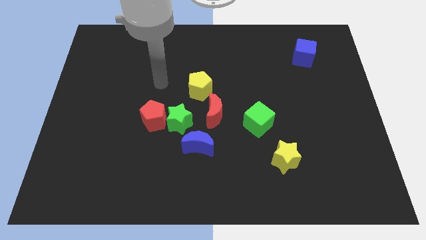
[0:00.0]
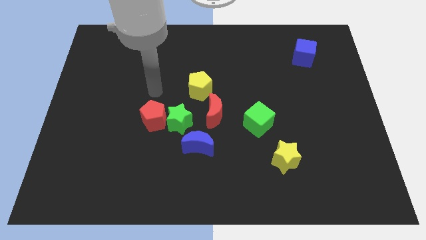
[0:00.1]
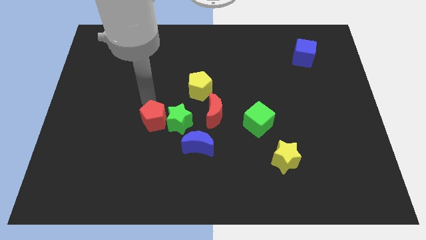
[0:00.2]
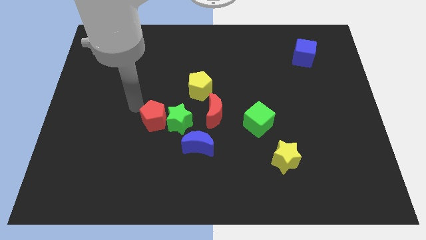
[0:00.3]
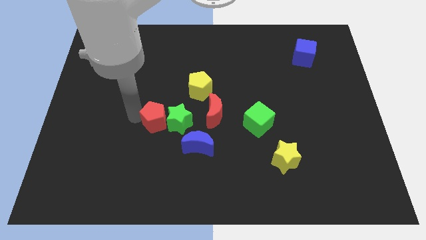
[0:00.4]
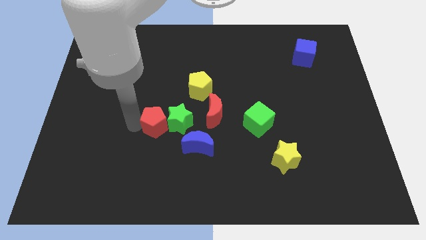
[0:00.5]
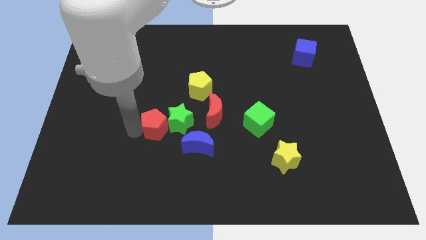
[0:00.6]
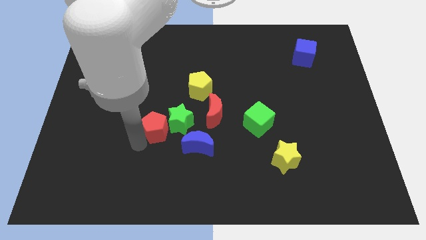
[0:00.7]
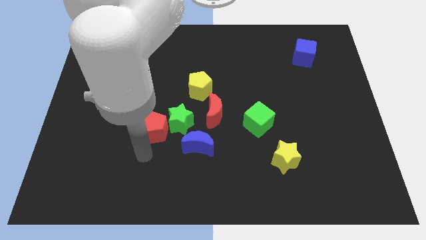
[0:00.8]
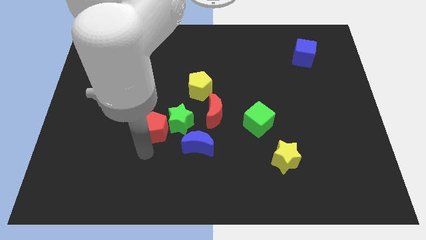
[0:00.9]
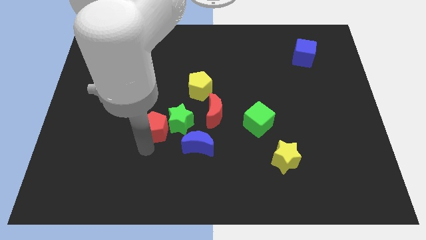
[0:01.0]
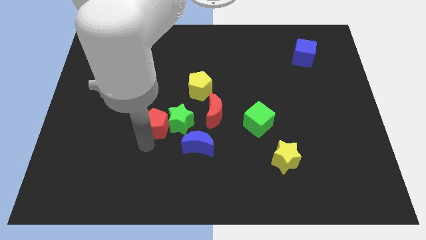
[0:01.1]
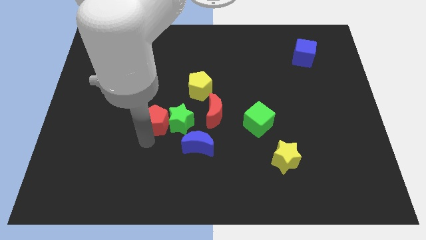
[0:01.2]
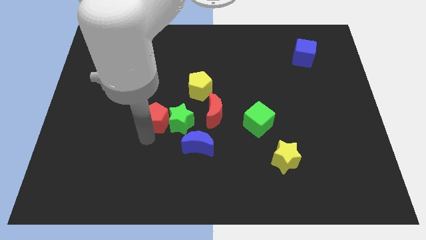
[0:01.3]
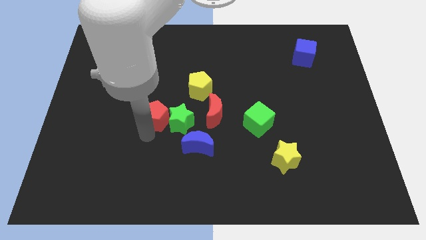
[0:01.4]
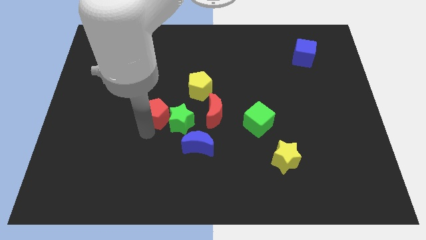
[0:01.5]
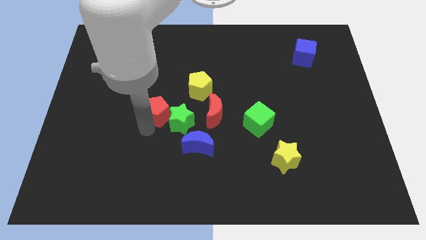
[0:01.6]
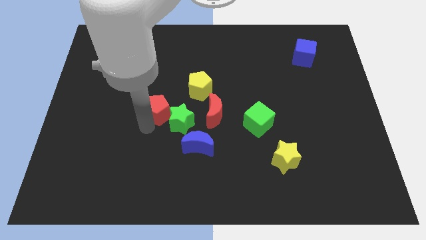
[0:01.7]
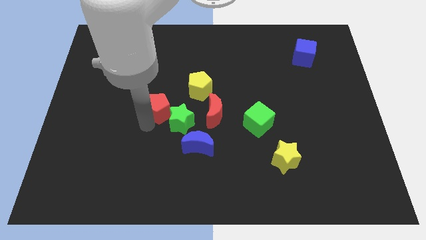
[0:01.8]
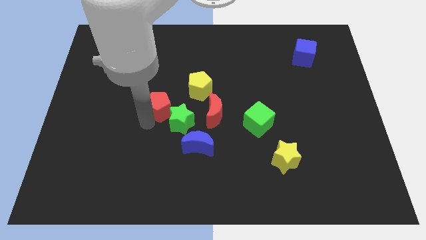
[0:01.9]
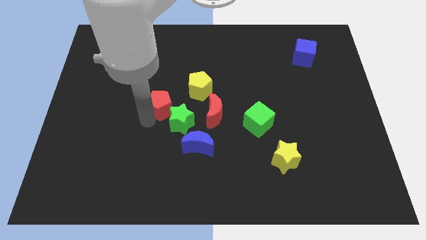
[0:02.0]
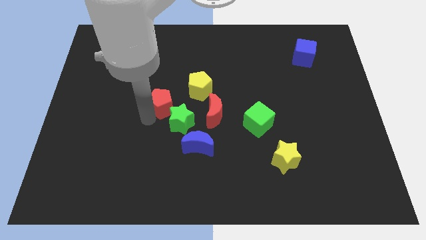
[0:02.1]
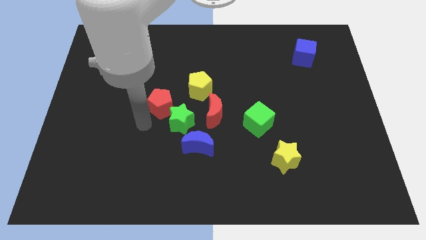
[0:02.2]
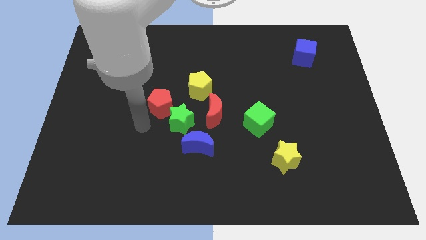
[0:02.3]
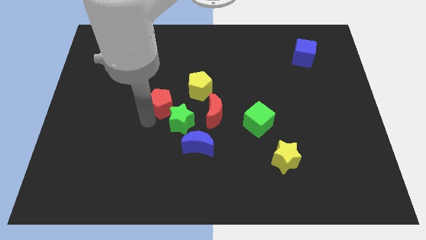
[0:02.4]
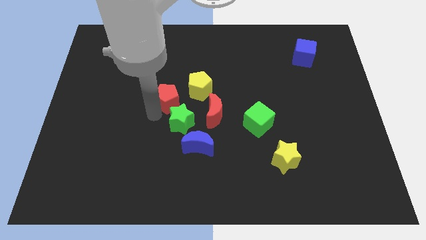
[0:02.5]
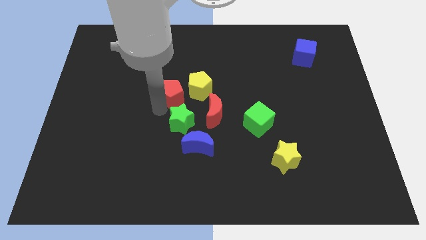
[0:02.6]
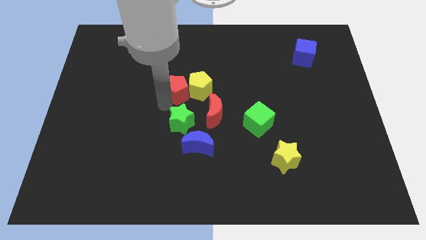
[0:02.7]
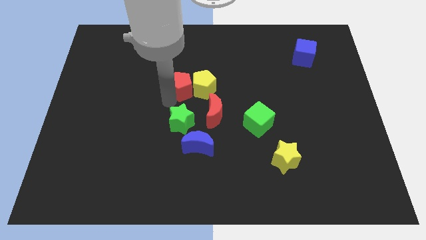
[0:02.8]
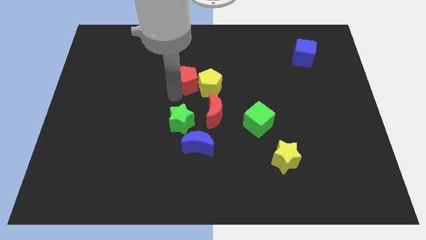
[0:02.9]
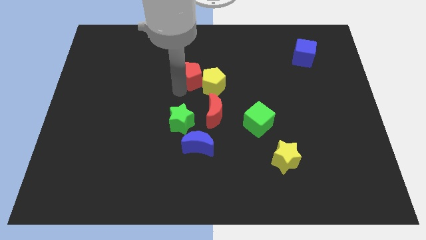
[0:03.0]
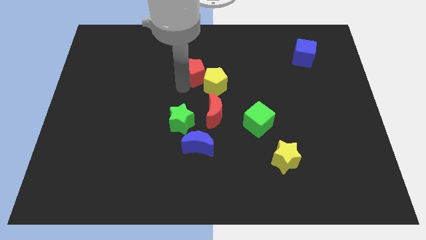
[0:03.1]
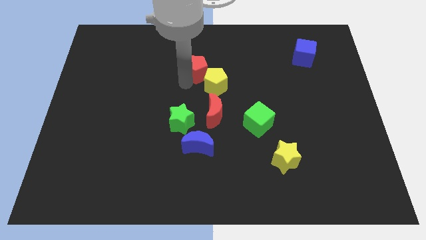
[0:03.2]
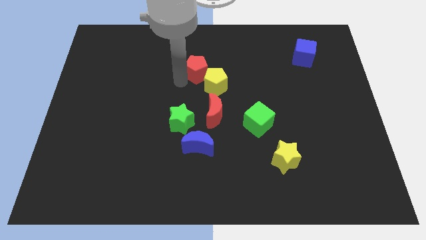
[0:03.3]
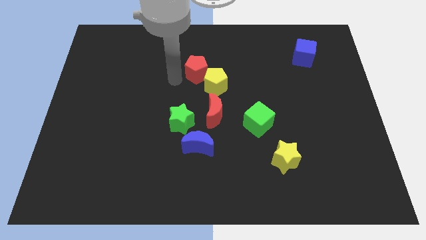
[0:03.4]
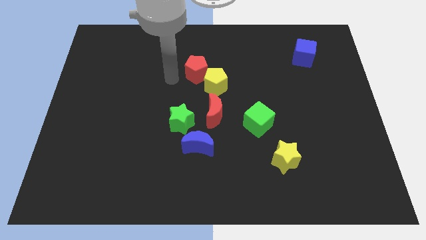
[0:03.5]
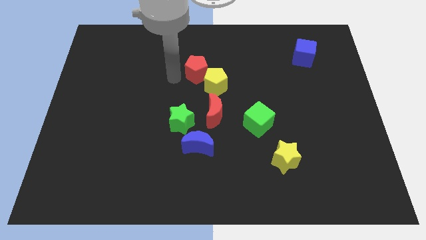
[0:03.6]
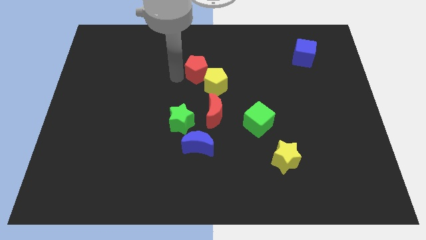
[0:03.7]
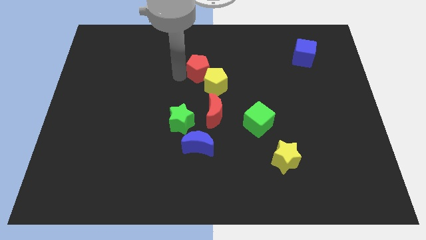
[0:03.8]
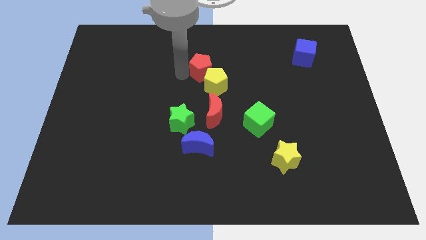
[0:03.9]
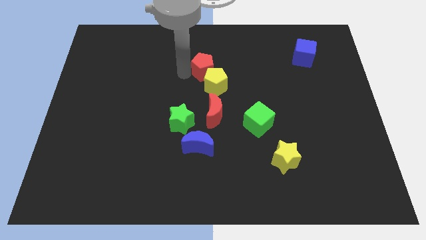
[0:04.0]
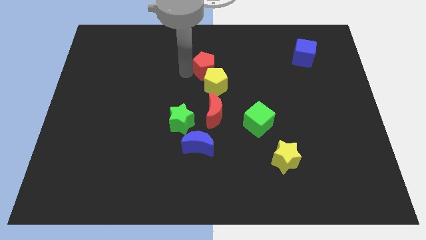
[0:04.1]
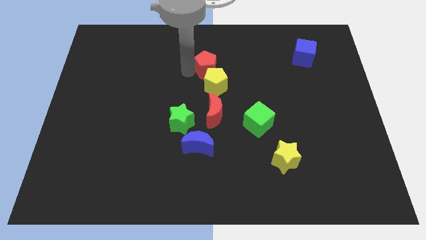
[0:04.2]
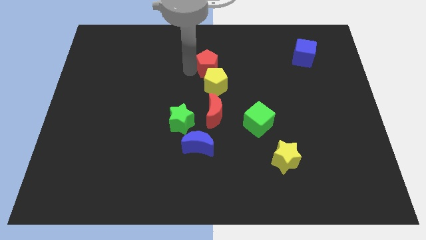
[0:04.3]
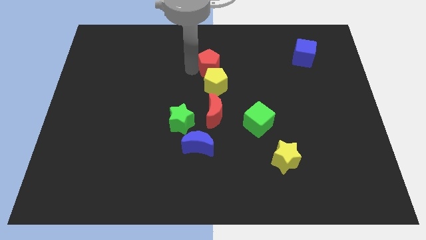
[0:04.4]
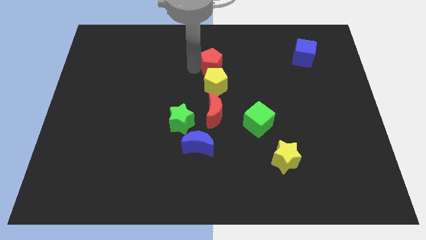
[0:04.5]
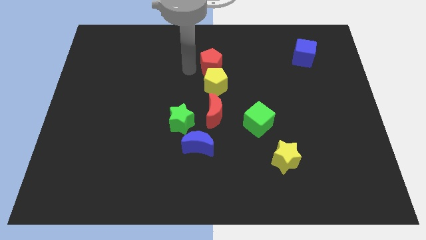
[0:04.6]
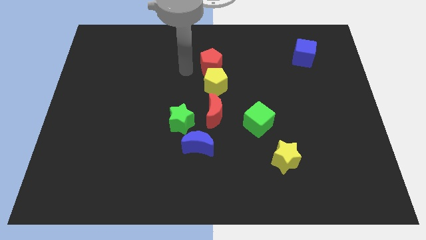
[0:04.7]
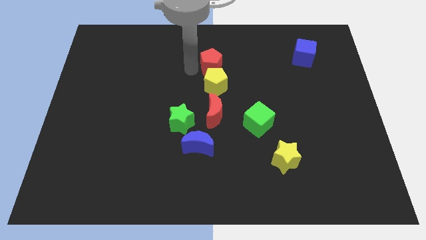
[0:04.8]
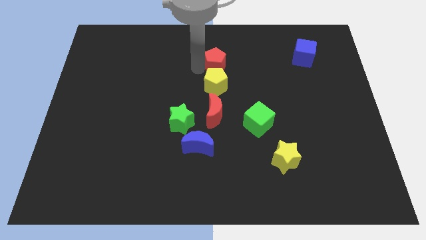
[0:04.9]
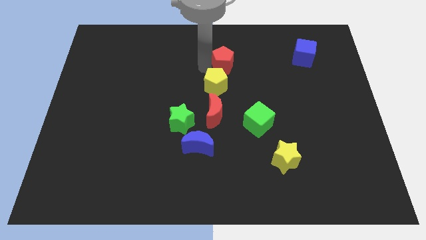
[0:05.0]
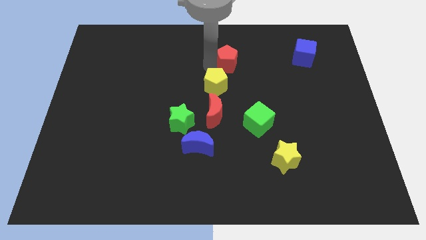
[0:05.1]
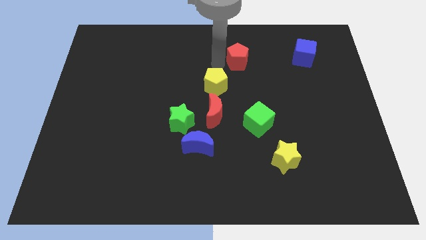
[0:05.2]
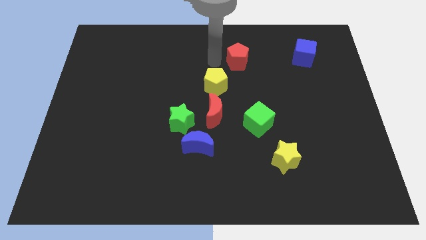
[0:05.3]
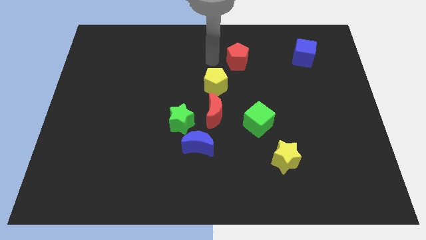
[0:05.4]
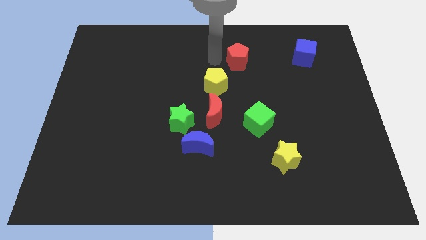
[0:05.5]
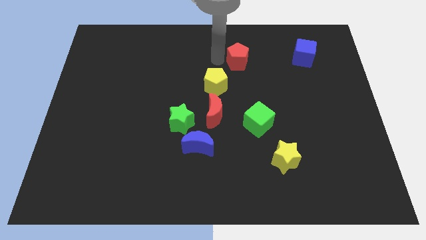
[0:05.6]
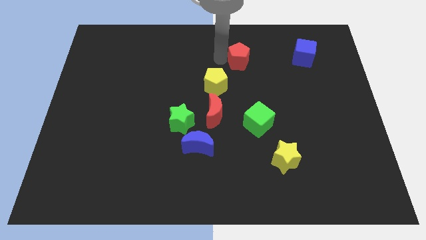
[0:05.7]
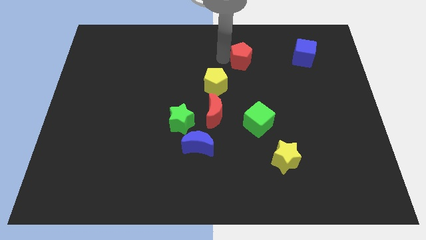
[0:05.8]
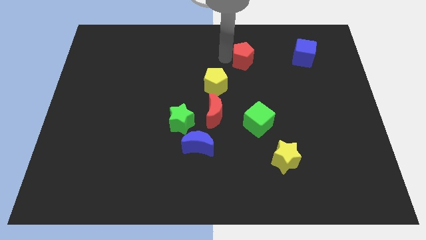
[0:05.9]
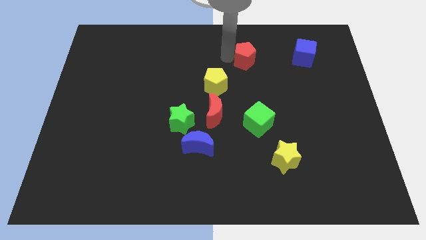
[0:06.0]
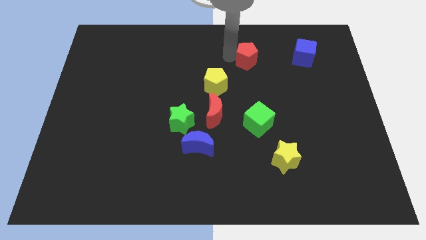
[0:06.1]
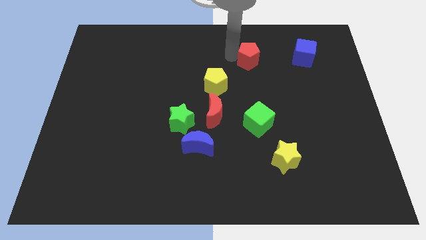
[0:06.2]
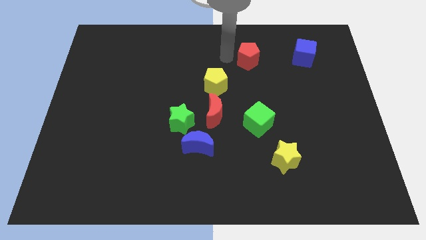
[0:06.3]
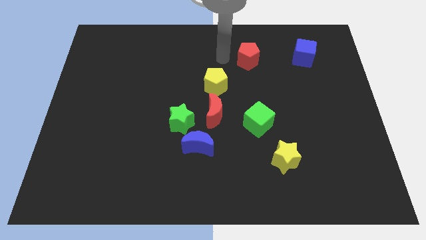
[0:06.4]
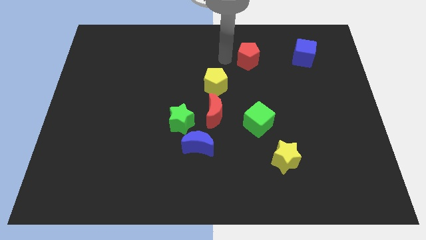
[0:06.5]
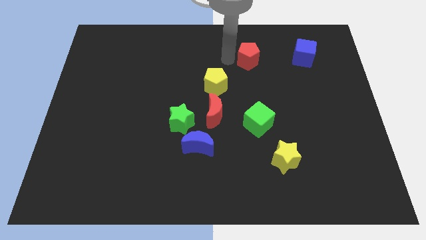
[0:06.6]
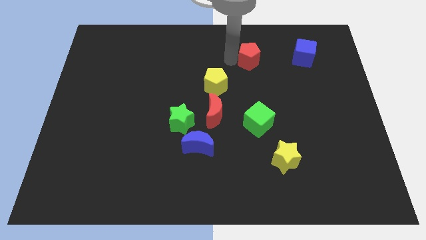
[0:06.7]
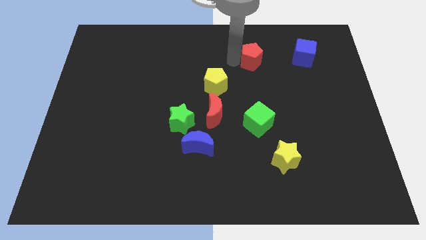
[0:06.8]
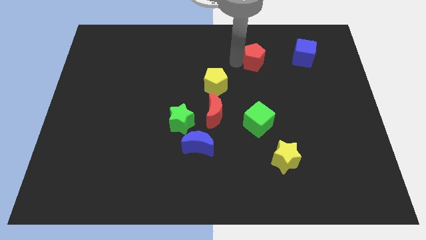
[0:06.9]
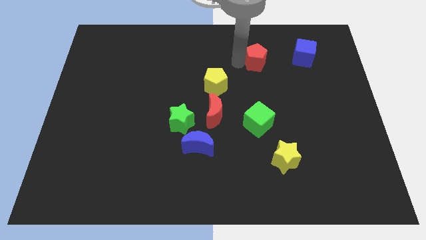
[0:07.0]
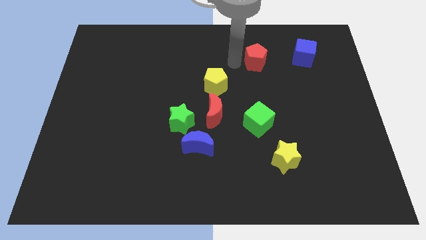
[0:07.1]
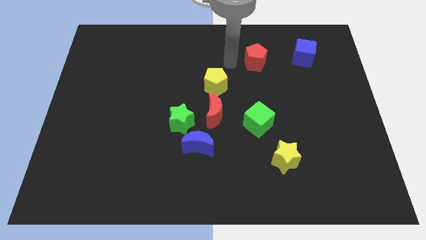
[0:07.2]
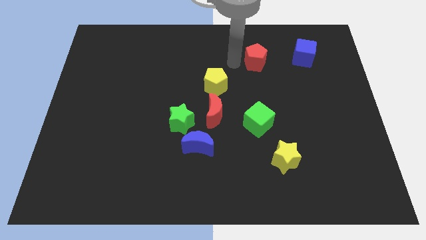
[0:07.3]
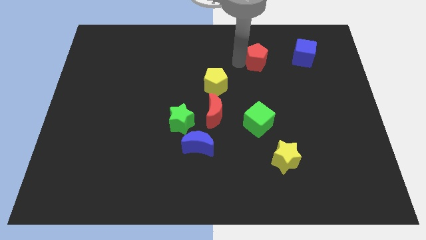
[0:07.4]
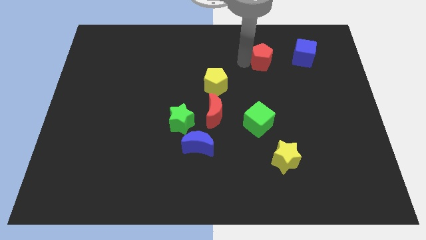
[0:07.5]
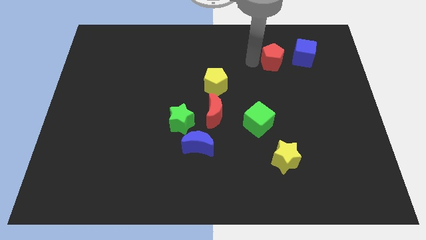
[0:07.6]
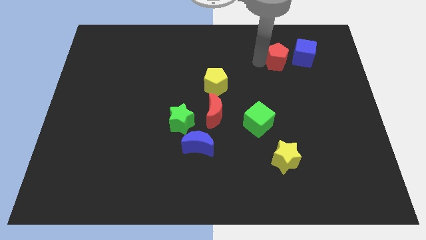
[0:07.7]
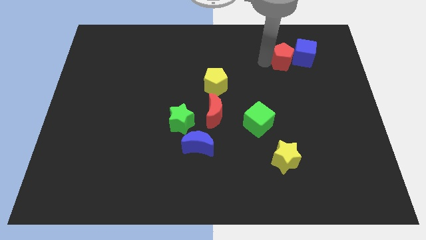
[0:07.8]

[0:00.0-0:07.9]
slide the red pentagon to the blue cube
